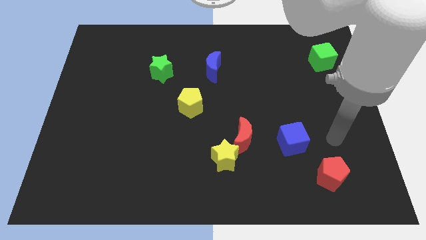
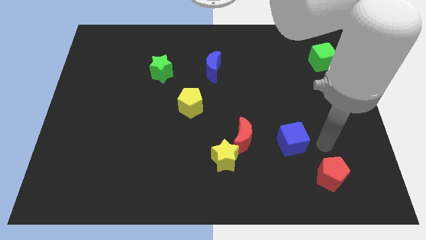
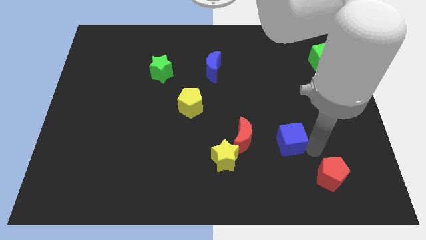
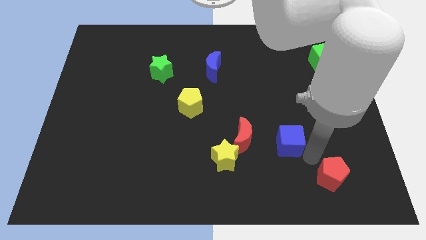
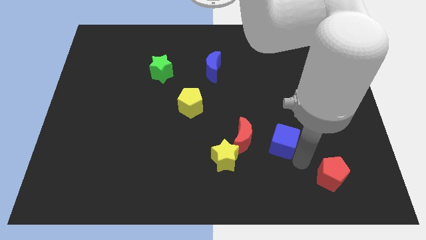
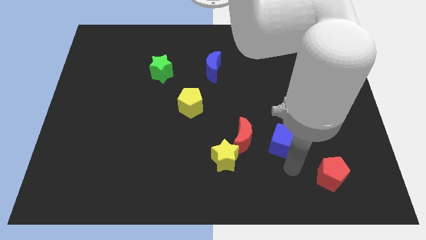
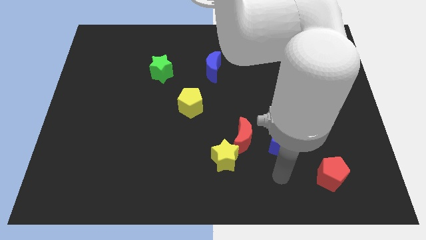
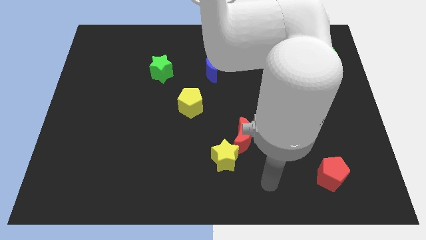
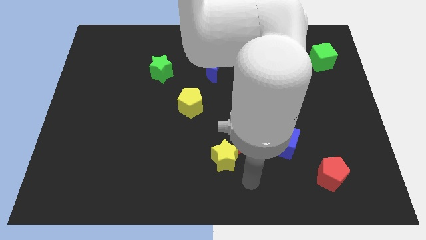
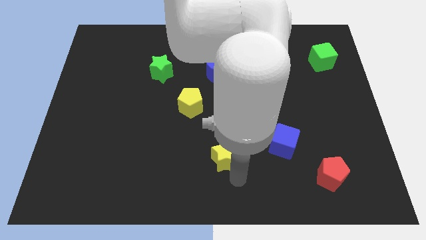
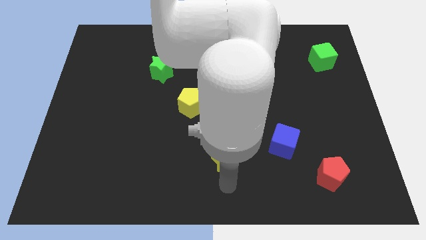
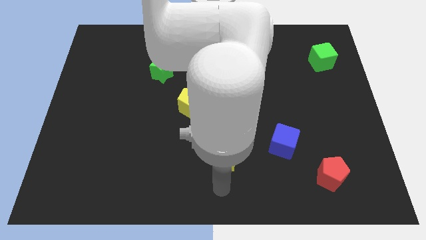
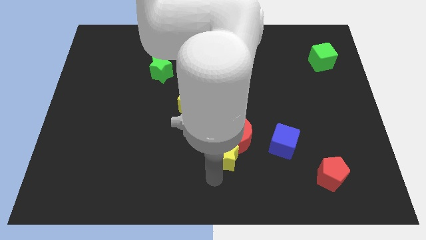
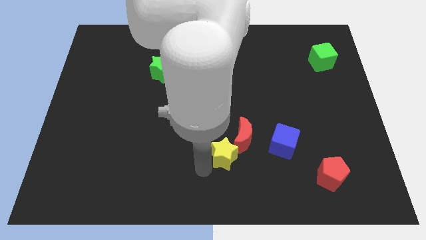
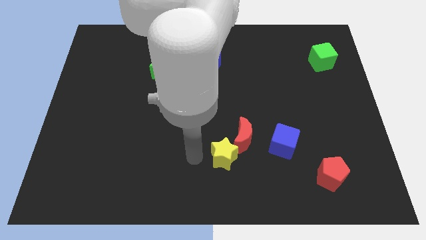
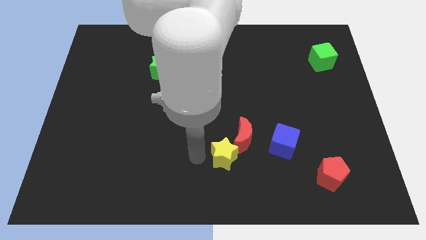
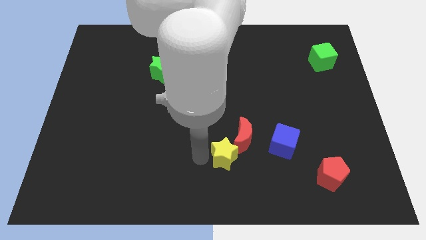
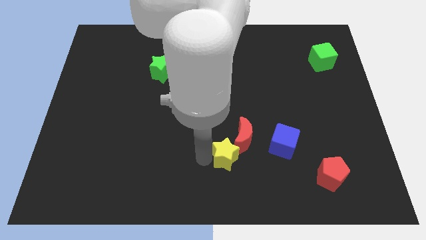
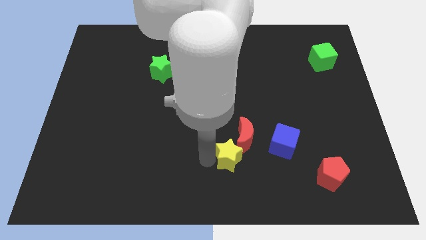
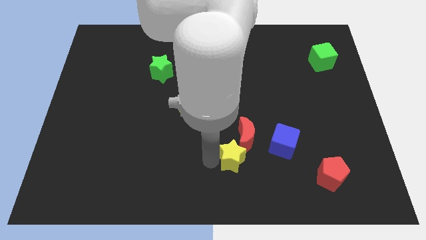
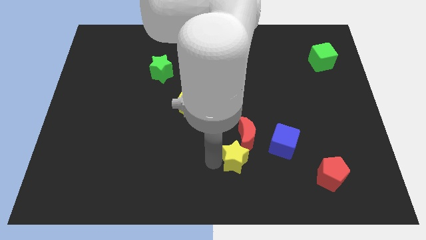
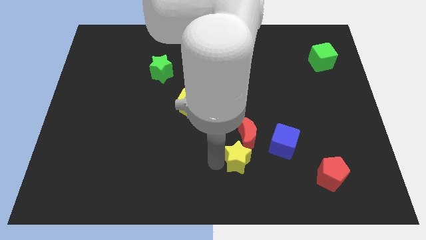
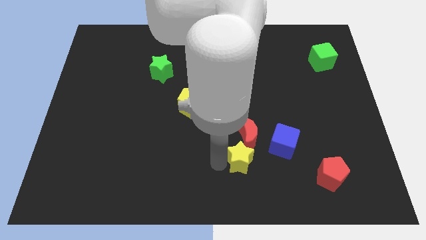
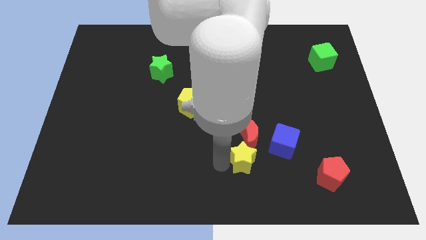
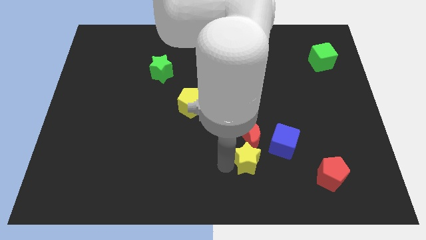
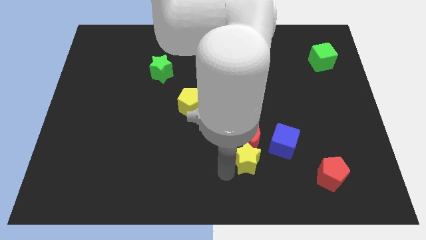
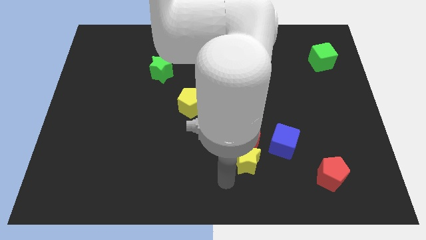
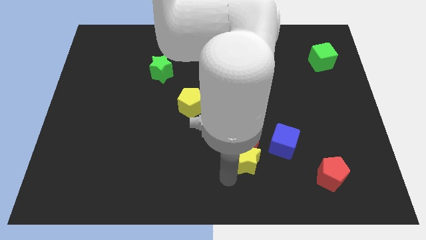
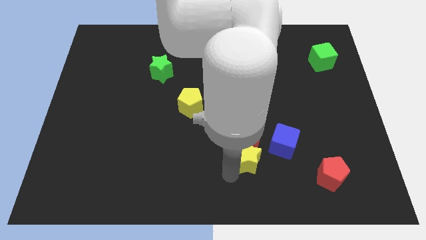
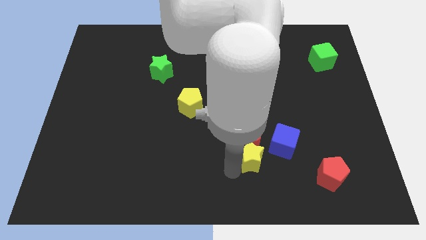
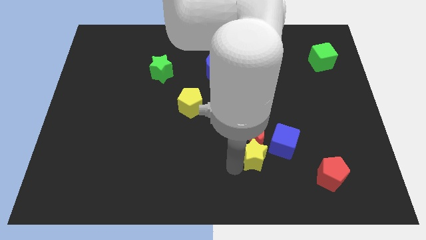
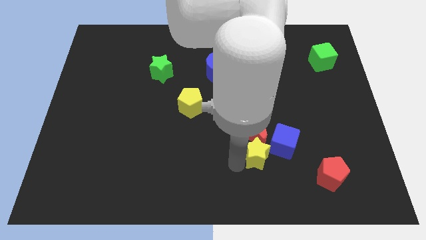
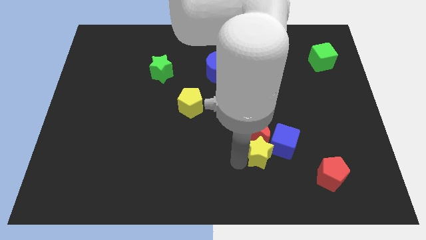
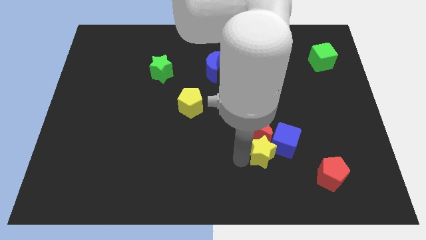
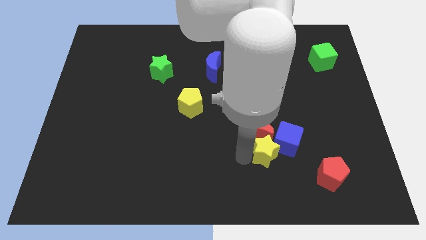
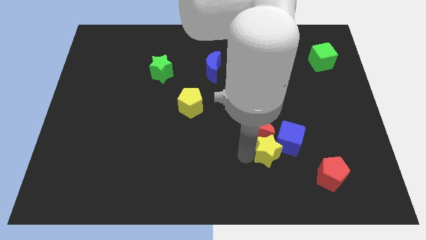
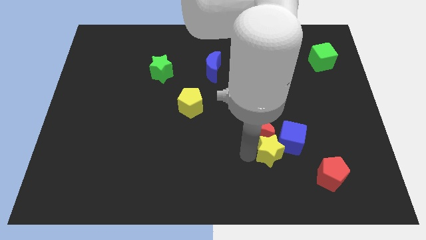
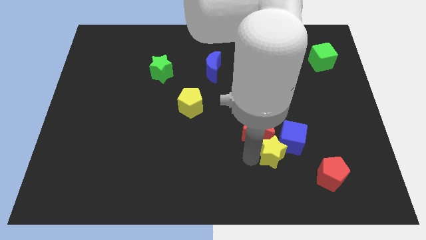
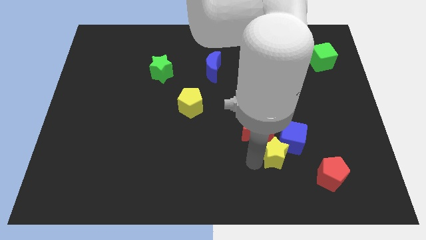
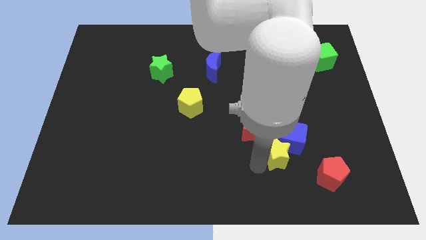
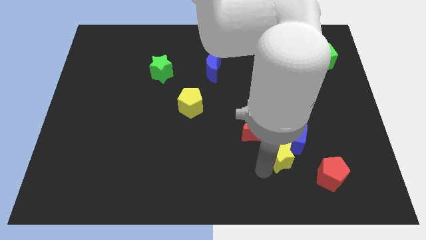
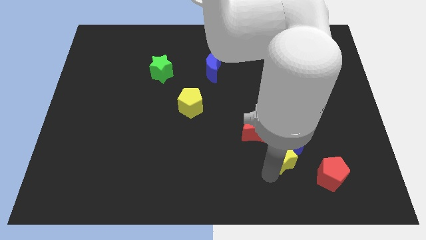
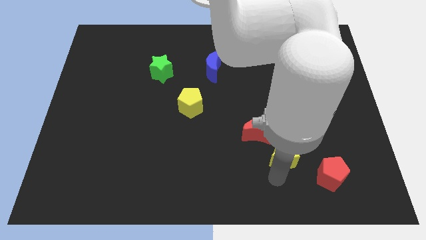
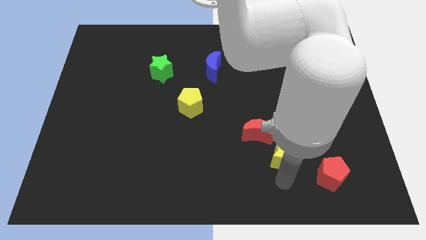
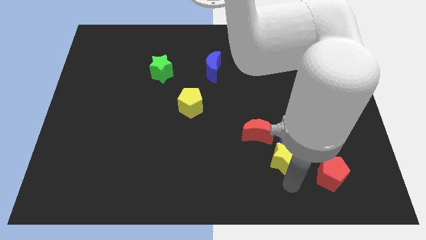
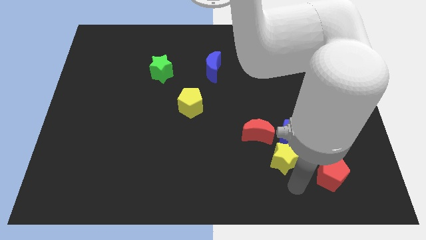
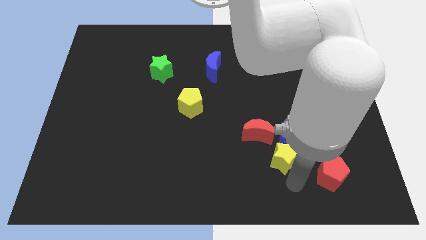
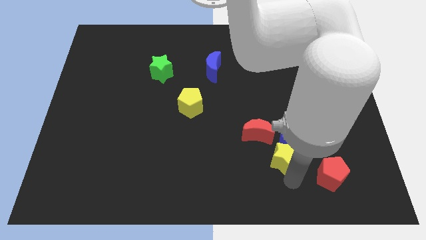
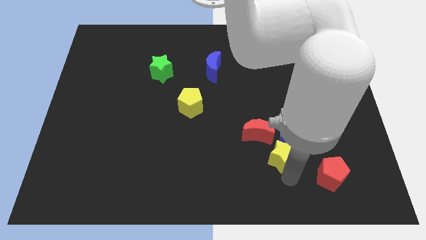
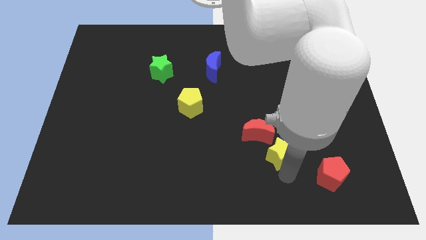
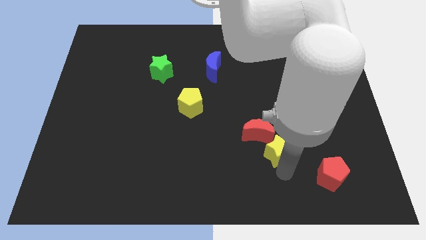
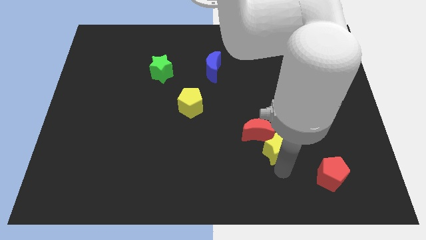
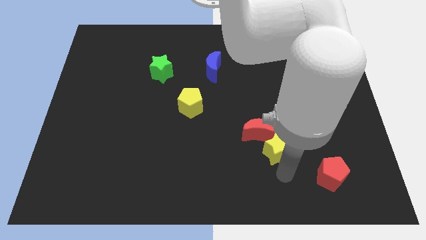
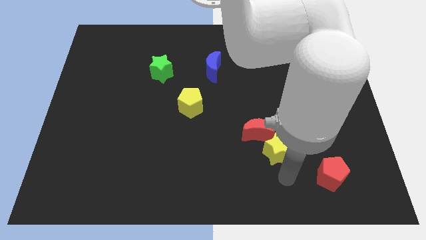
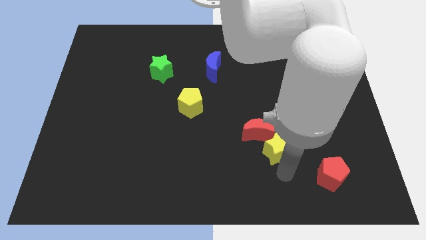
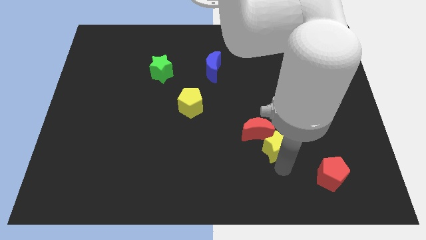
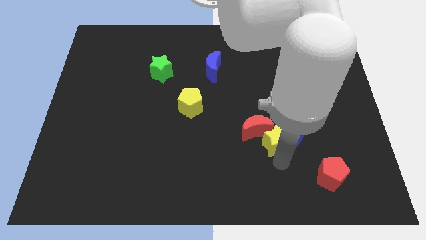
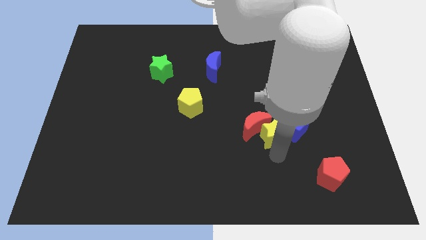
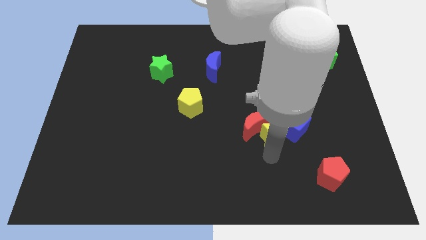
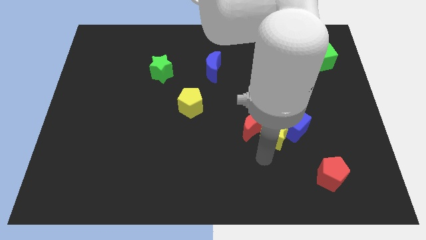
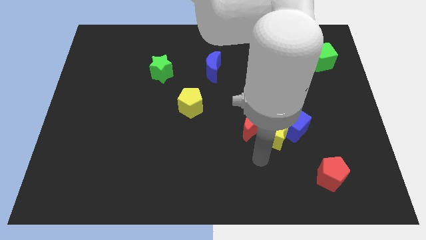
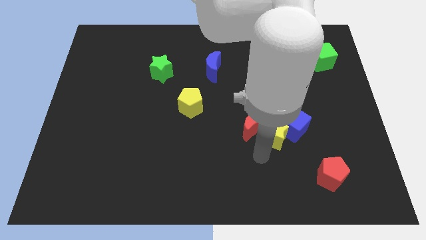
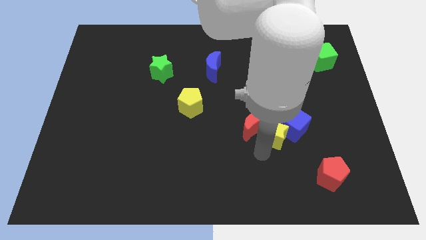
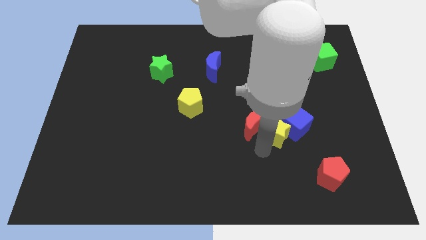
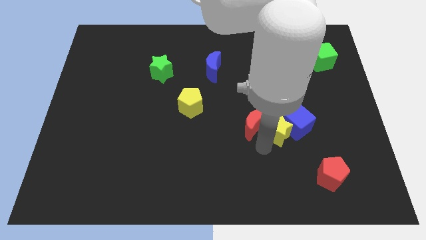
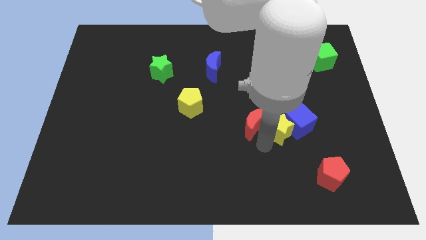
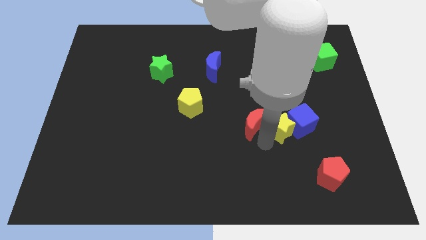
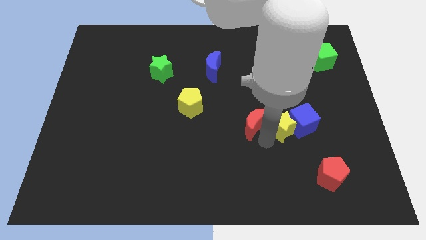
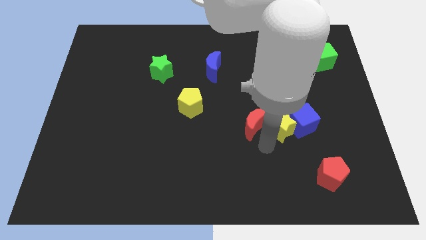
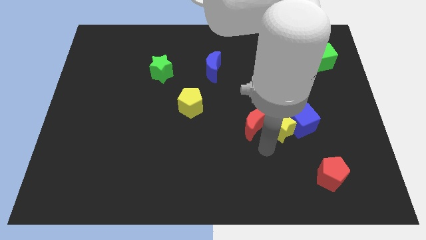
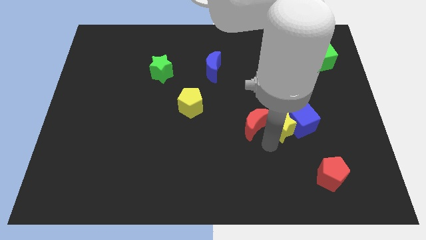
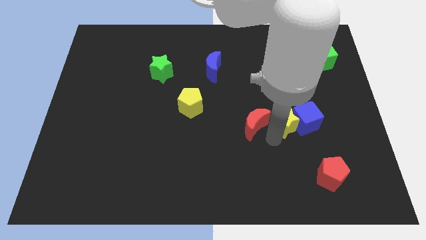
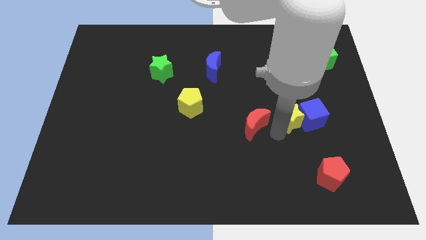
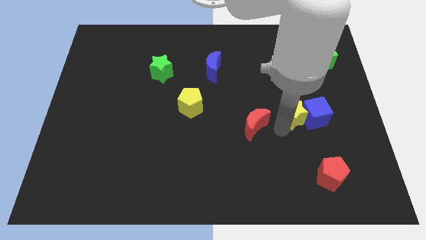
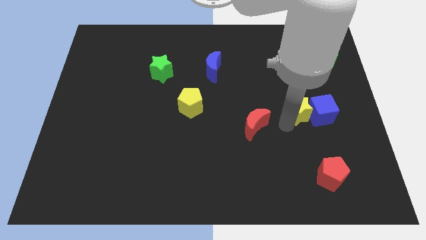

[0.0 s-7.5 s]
move the yellow star upwards and then right

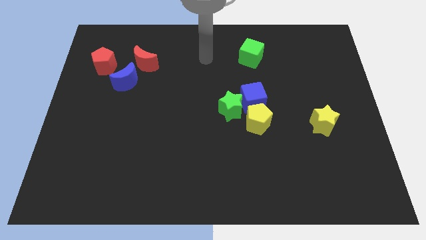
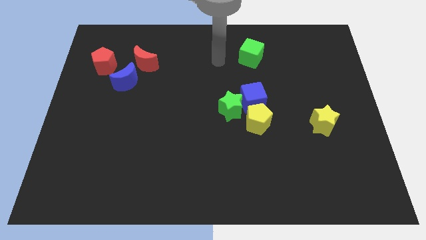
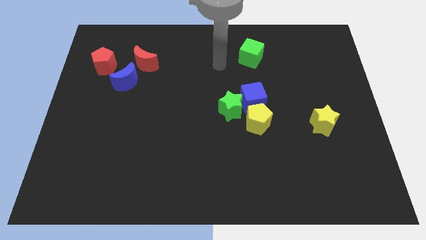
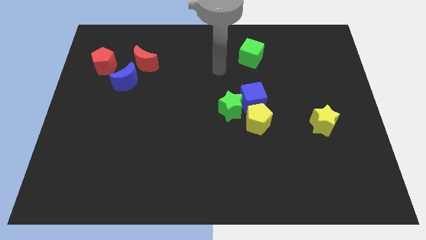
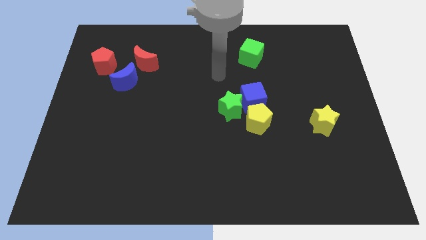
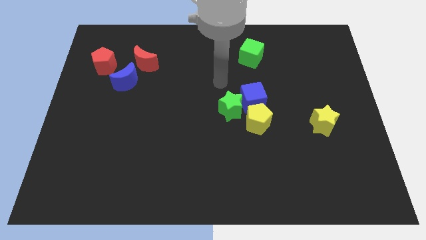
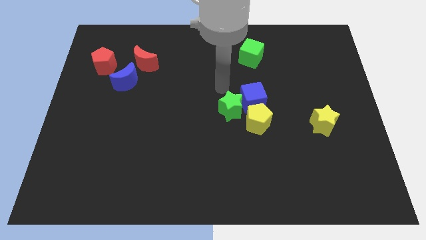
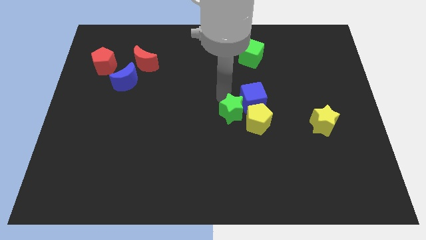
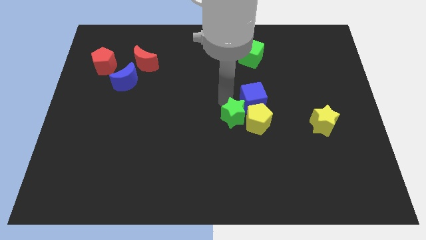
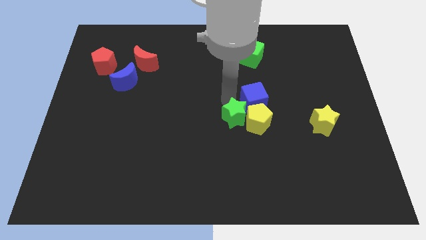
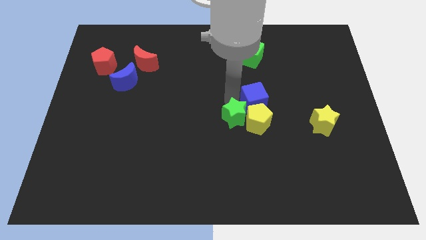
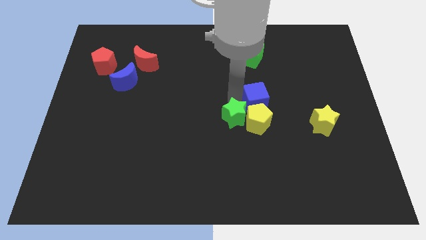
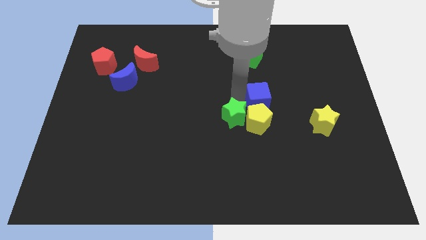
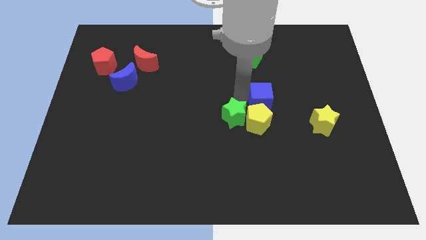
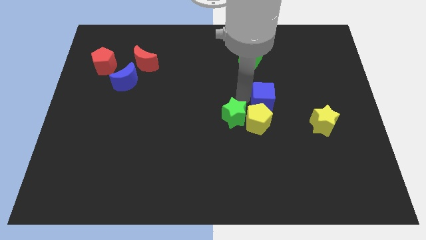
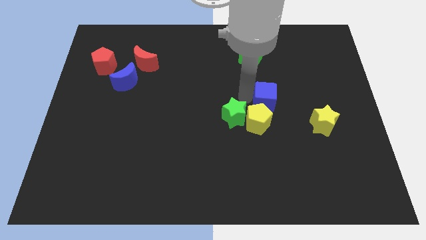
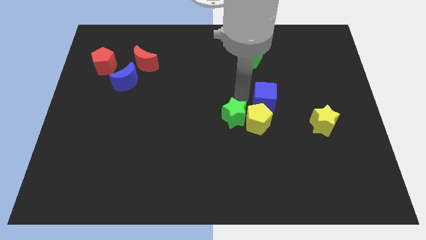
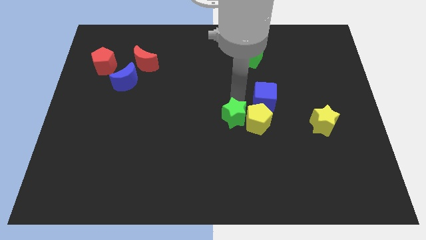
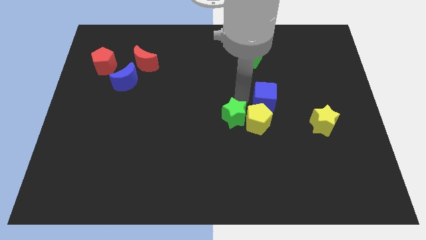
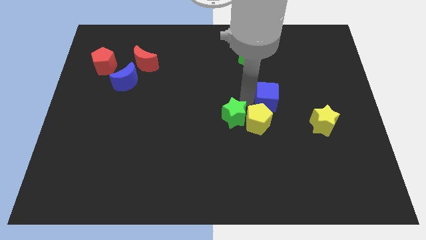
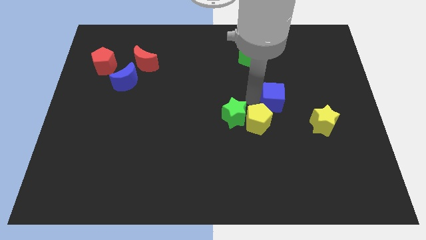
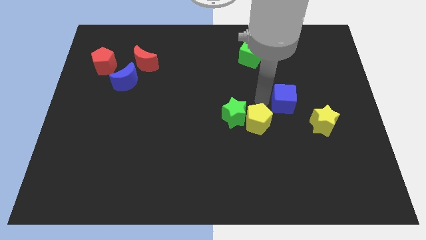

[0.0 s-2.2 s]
push the blue cube to the right slightly
